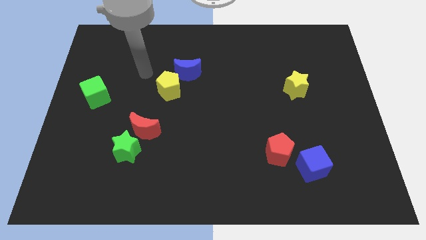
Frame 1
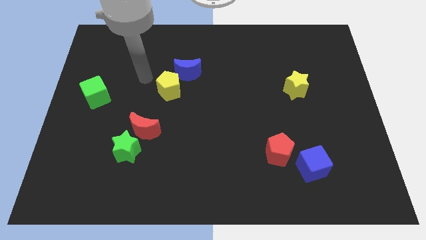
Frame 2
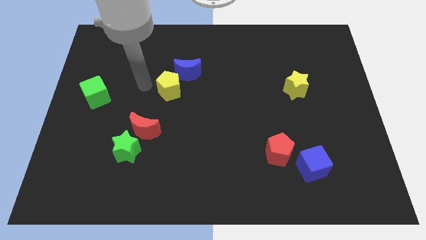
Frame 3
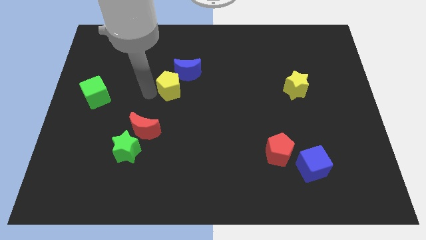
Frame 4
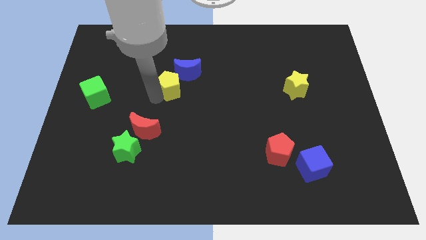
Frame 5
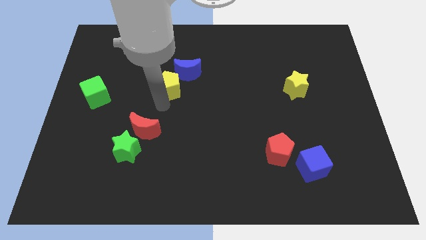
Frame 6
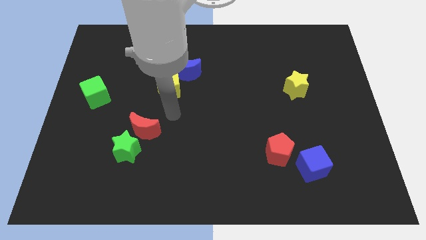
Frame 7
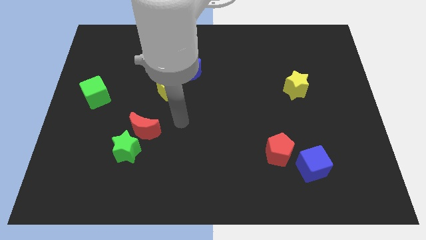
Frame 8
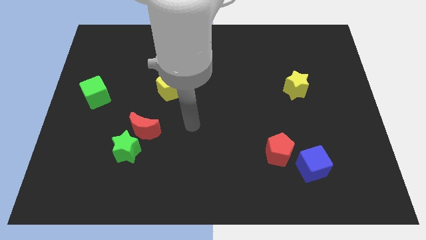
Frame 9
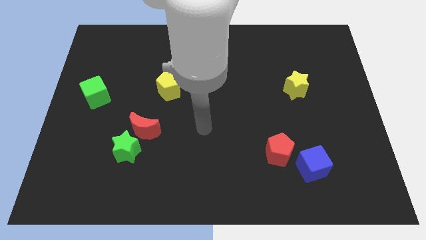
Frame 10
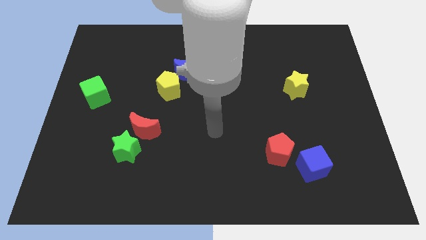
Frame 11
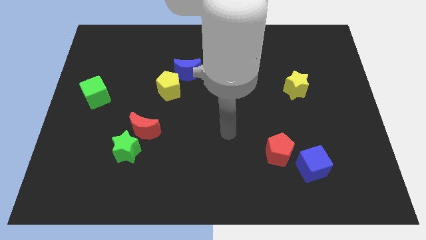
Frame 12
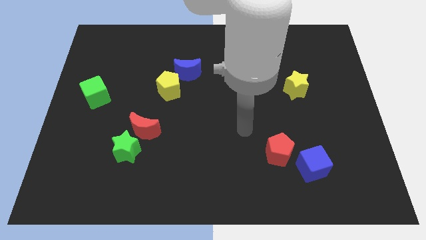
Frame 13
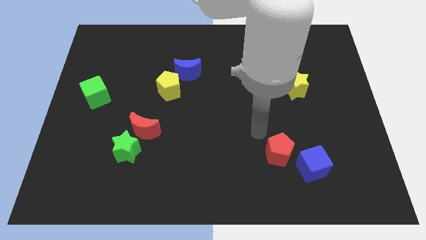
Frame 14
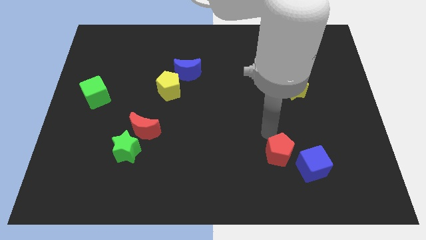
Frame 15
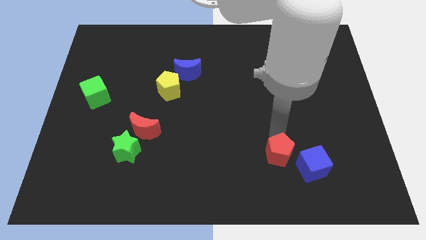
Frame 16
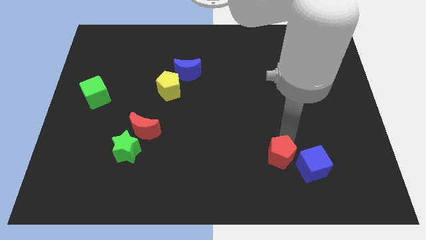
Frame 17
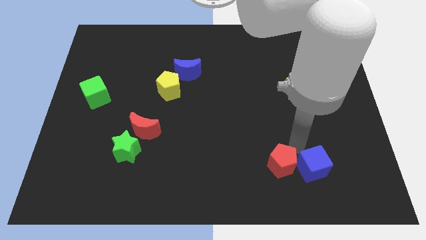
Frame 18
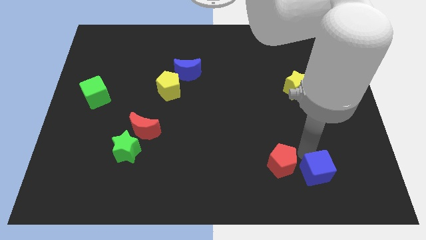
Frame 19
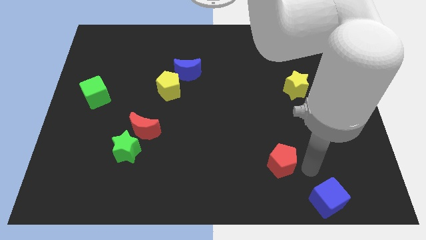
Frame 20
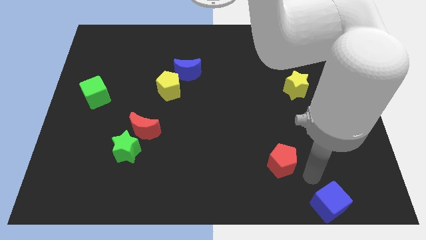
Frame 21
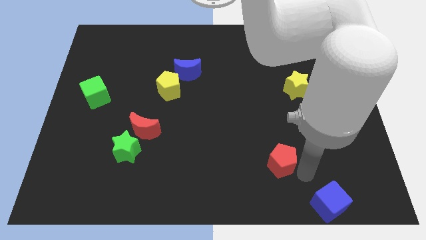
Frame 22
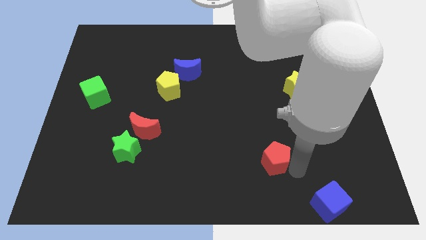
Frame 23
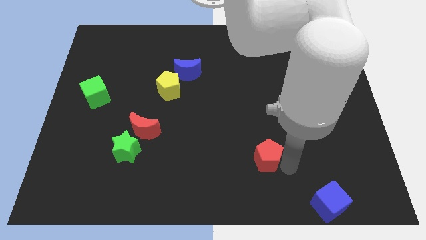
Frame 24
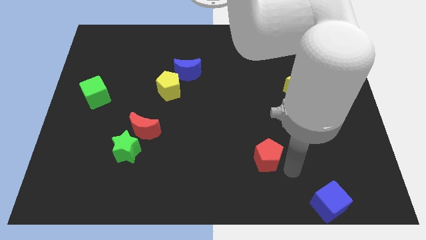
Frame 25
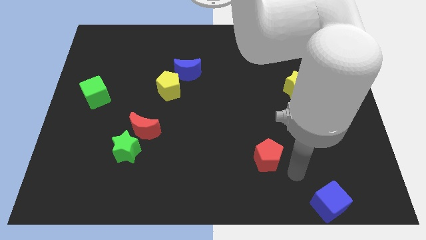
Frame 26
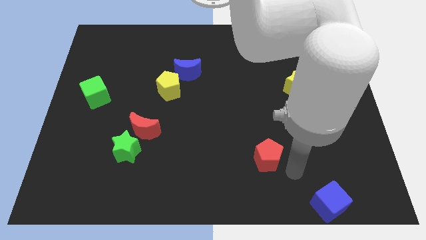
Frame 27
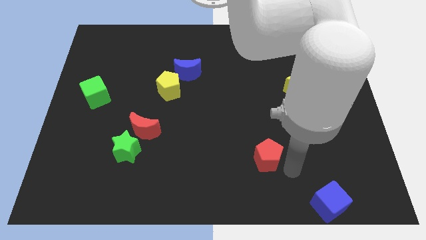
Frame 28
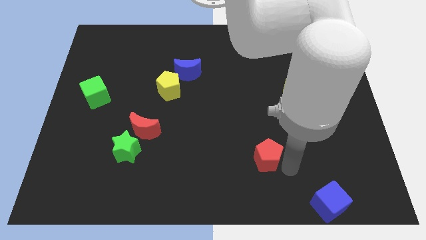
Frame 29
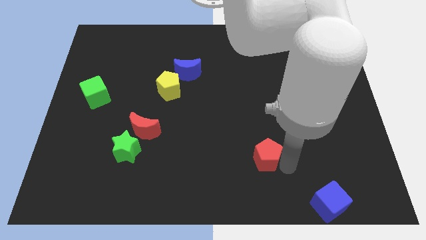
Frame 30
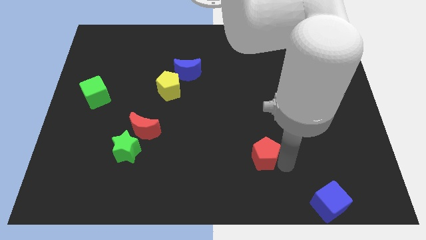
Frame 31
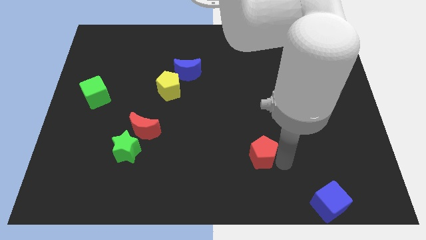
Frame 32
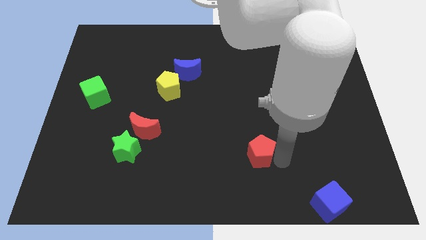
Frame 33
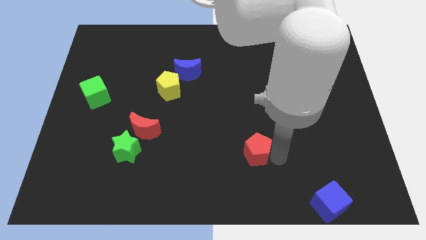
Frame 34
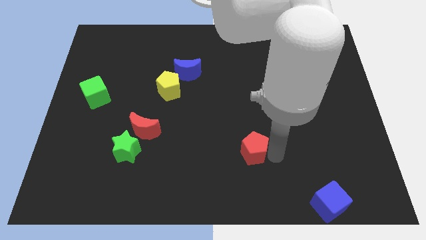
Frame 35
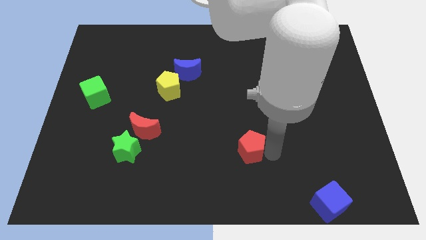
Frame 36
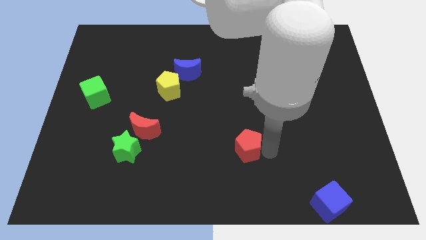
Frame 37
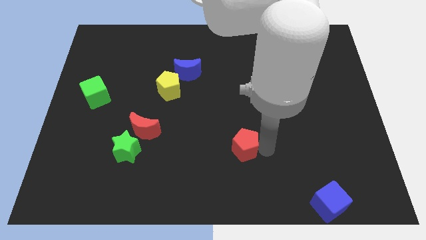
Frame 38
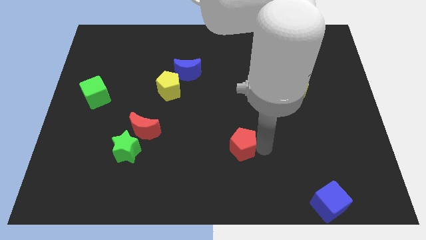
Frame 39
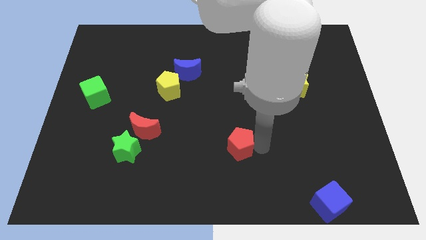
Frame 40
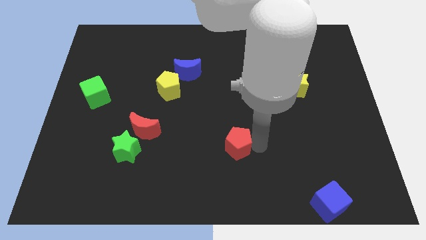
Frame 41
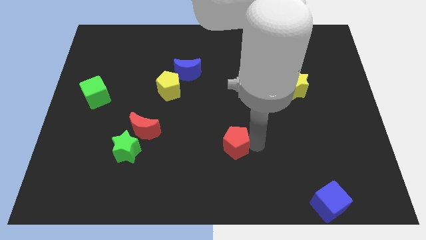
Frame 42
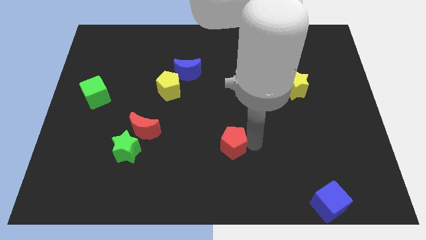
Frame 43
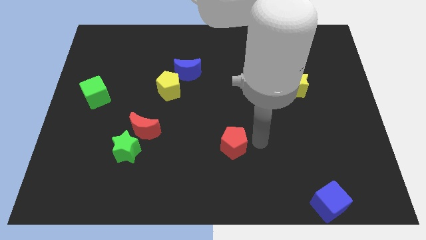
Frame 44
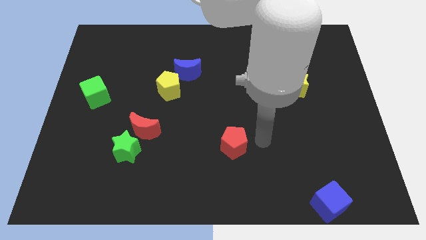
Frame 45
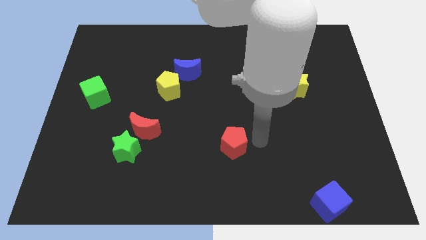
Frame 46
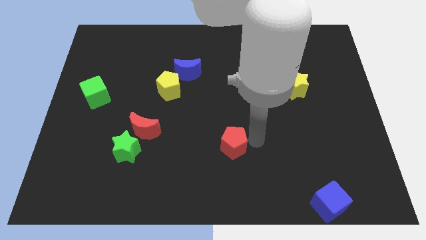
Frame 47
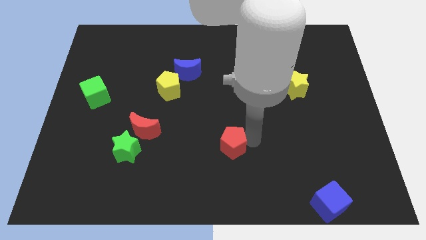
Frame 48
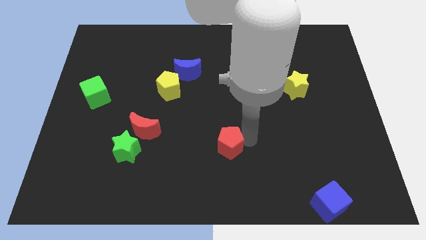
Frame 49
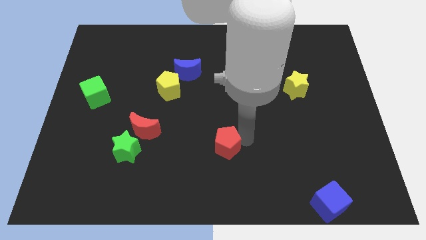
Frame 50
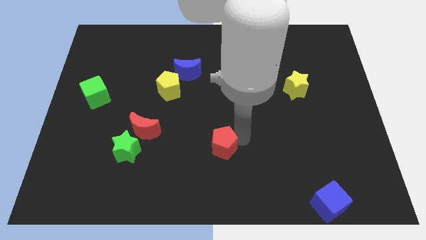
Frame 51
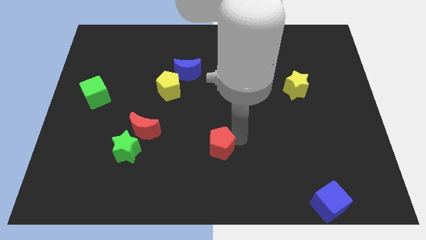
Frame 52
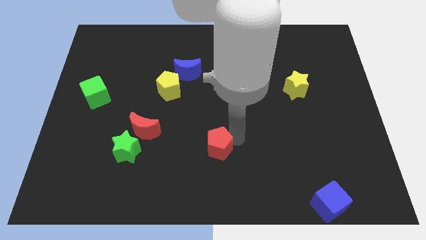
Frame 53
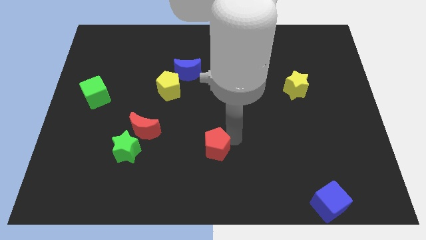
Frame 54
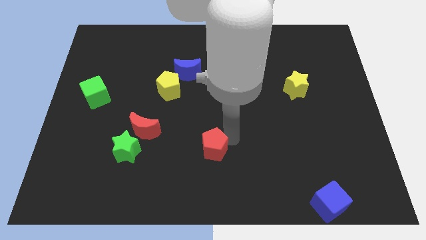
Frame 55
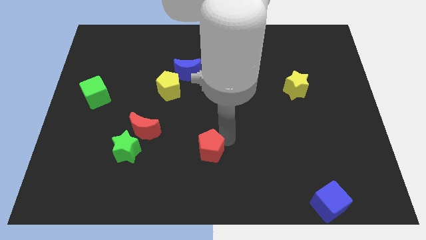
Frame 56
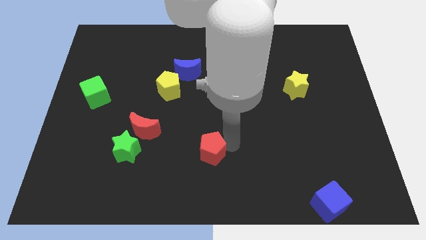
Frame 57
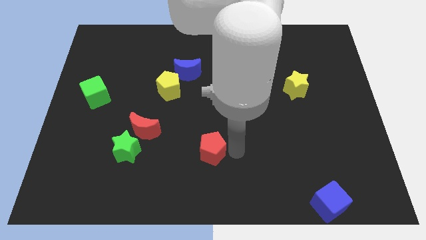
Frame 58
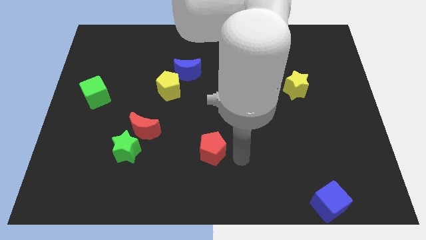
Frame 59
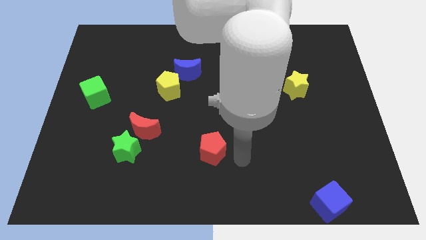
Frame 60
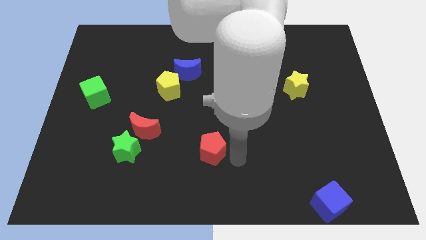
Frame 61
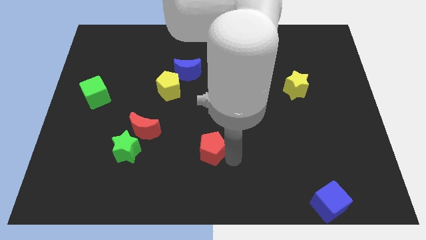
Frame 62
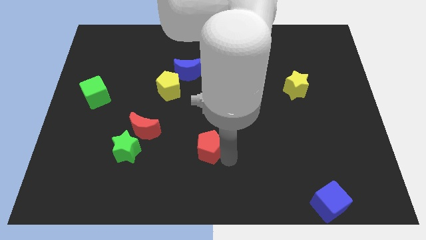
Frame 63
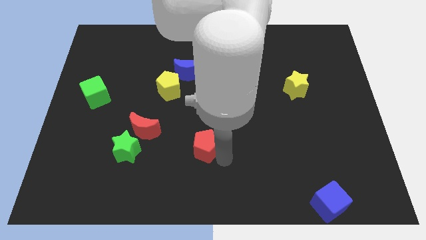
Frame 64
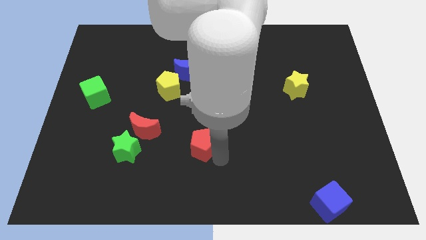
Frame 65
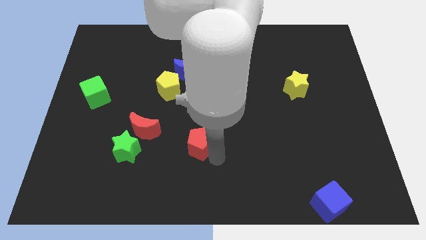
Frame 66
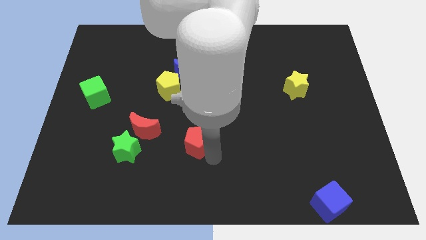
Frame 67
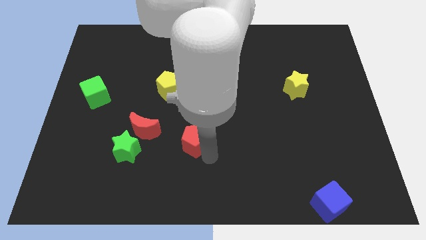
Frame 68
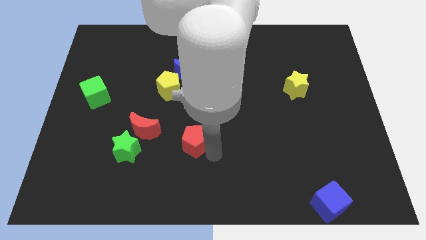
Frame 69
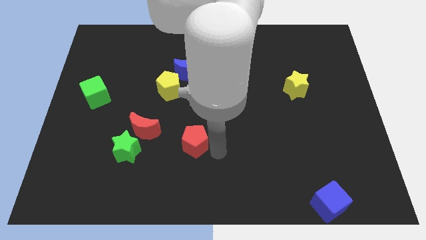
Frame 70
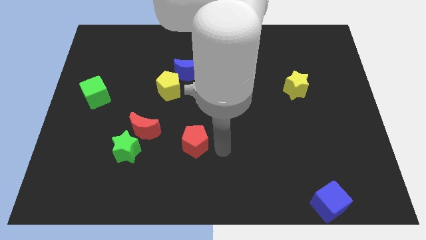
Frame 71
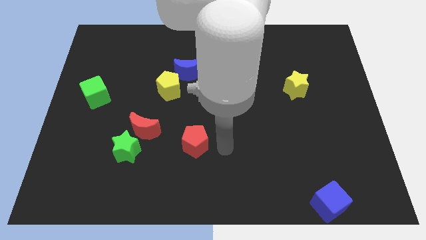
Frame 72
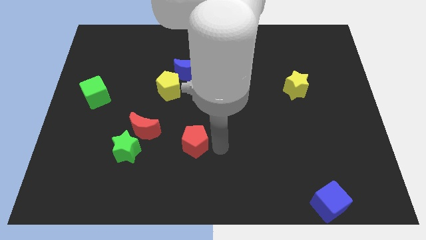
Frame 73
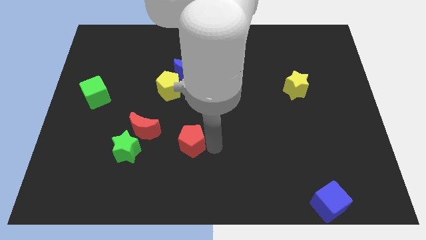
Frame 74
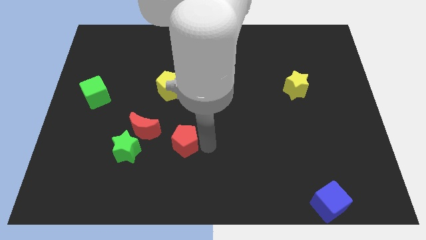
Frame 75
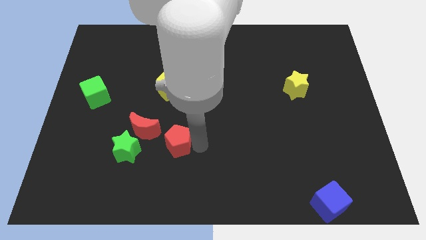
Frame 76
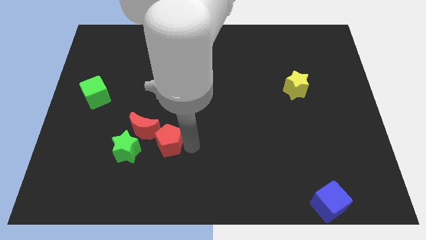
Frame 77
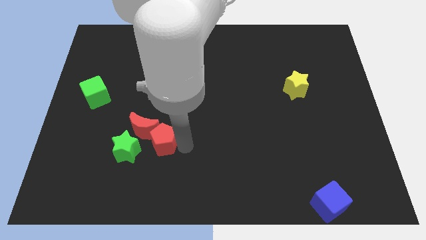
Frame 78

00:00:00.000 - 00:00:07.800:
put the red pentagon close to the red moon
